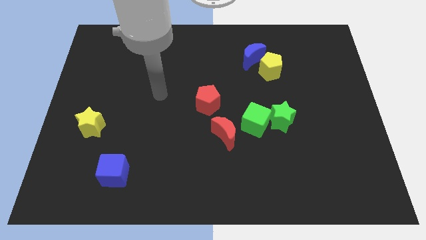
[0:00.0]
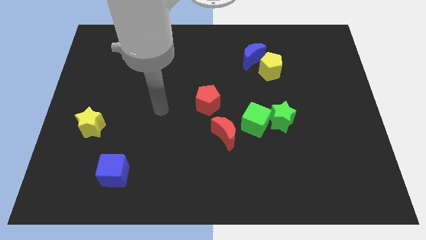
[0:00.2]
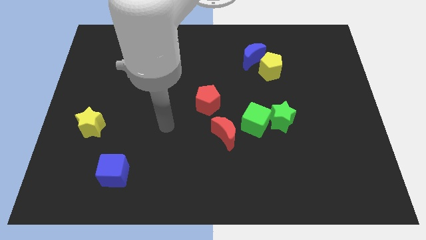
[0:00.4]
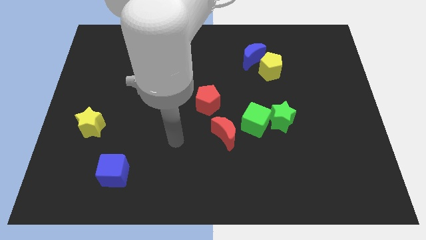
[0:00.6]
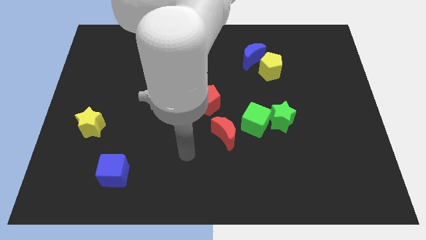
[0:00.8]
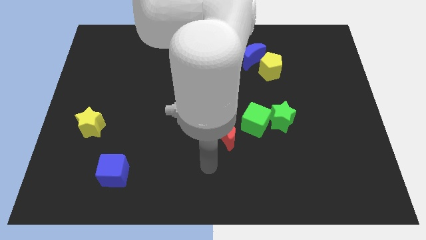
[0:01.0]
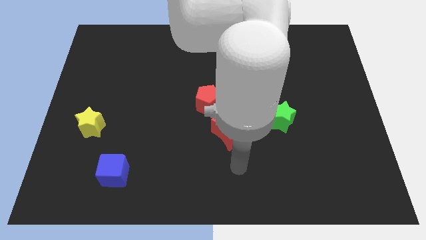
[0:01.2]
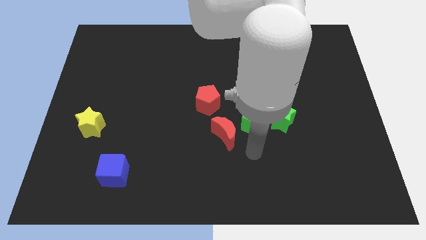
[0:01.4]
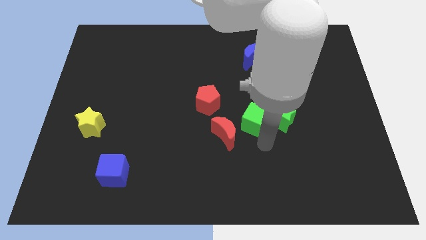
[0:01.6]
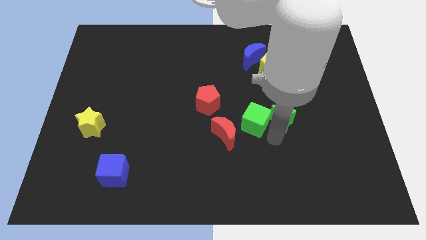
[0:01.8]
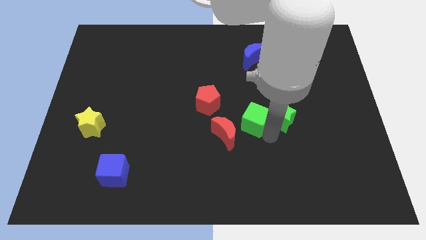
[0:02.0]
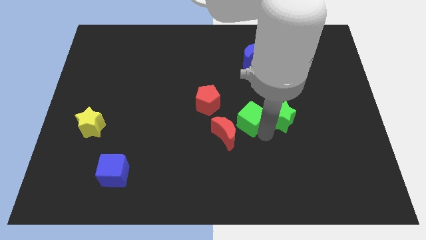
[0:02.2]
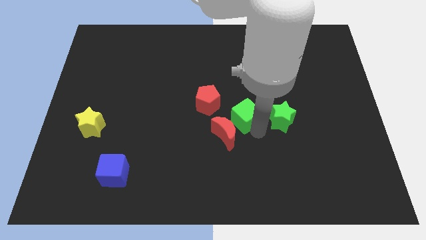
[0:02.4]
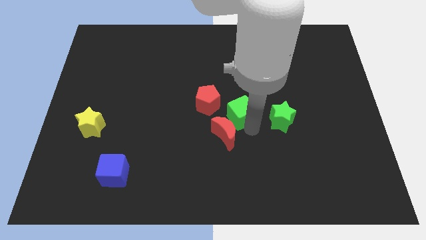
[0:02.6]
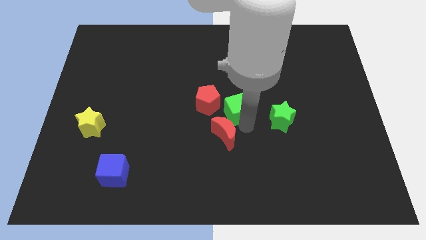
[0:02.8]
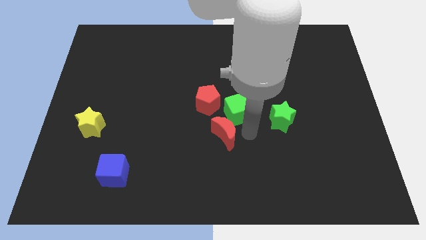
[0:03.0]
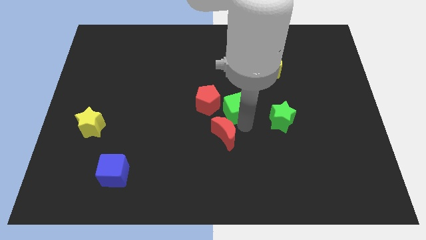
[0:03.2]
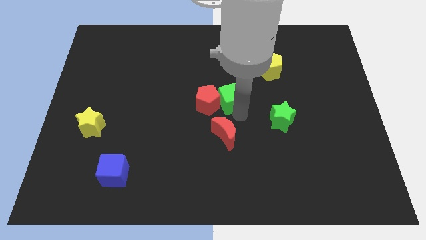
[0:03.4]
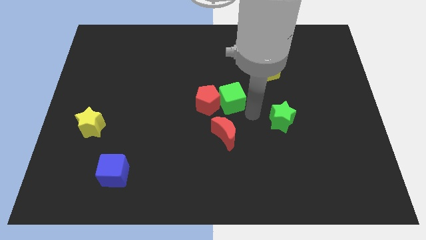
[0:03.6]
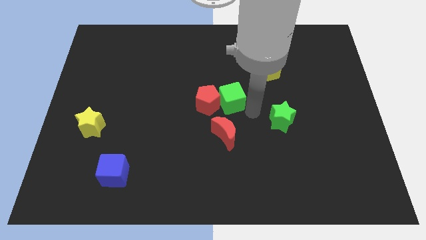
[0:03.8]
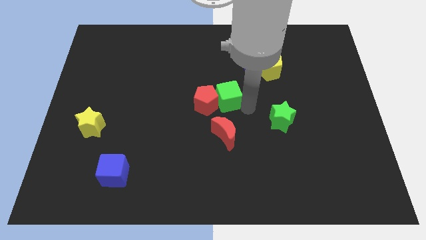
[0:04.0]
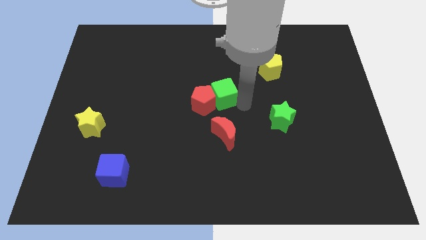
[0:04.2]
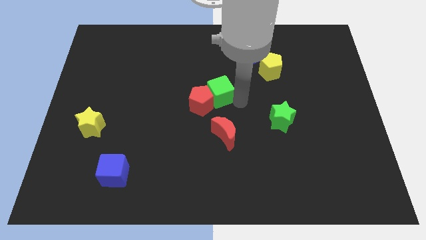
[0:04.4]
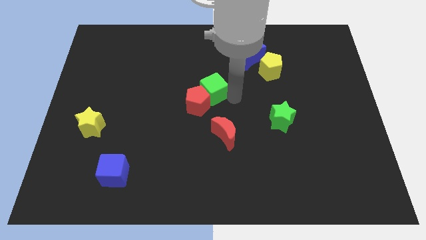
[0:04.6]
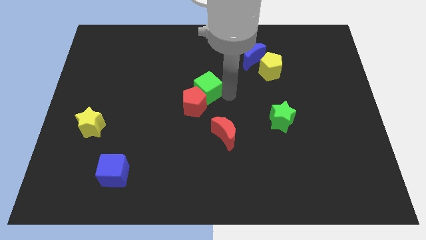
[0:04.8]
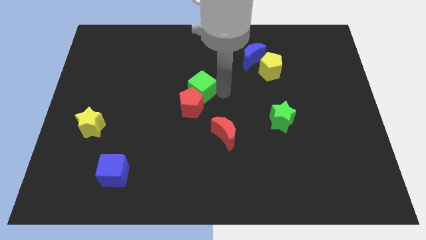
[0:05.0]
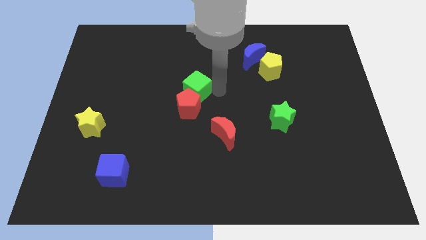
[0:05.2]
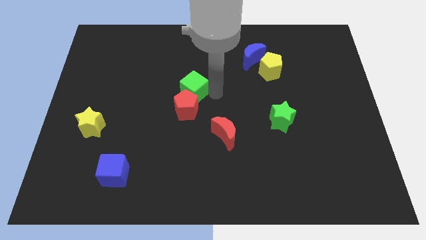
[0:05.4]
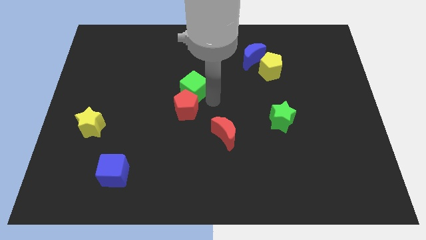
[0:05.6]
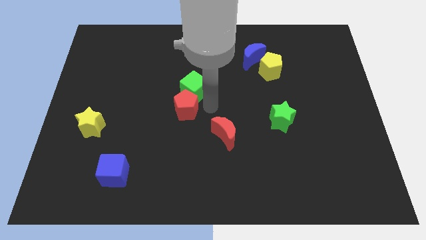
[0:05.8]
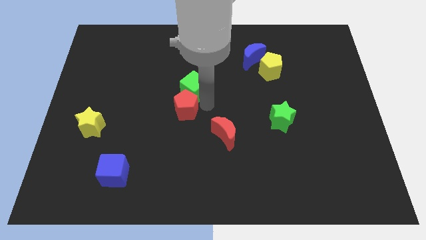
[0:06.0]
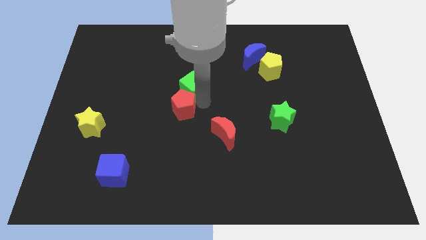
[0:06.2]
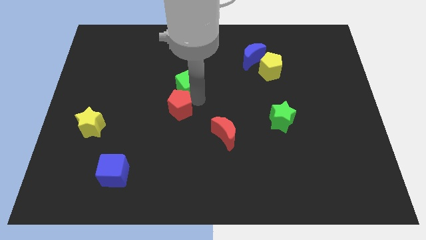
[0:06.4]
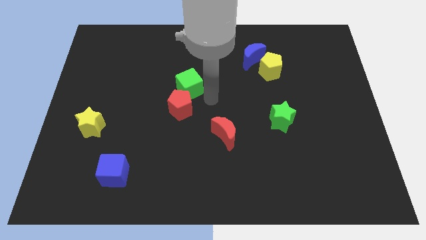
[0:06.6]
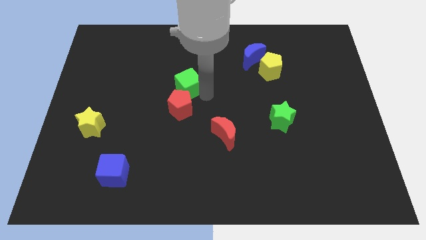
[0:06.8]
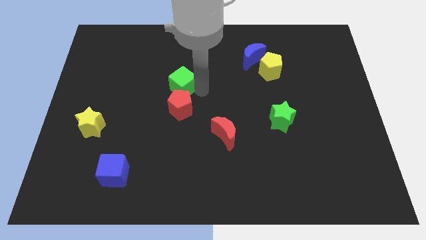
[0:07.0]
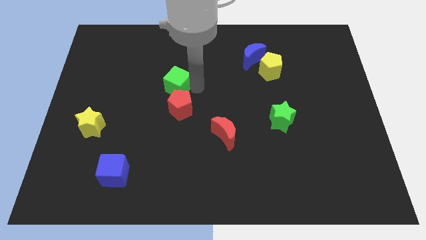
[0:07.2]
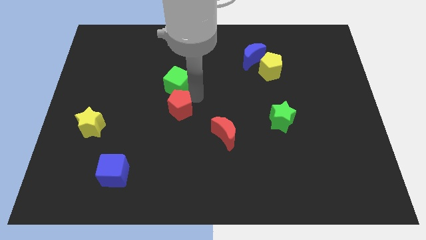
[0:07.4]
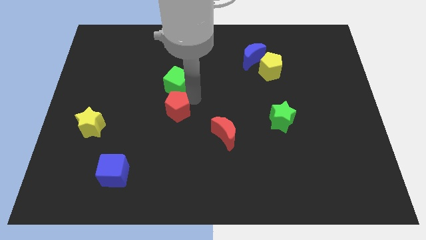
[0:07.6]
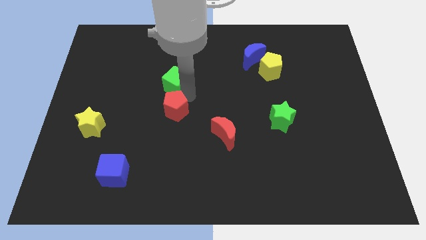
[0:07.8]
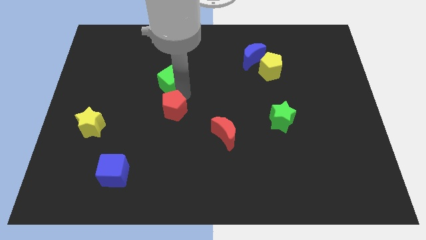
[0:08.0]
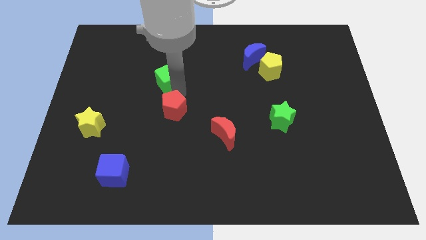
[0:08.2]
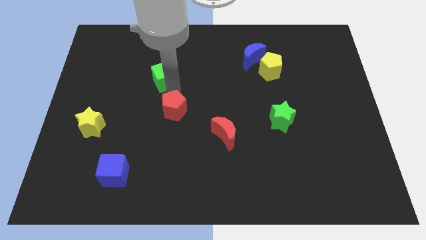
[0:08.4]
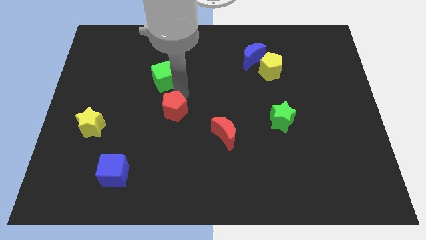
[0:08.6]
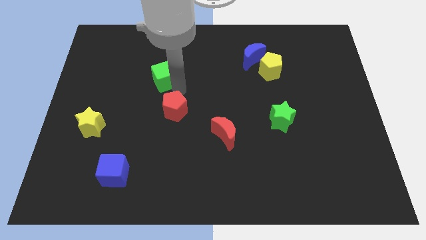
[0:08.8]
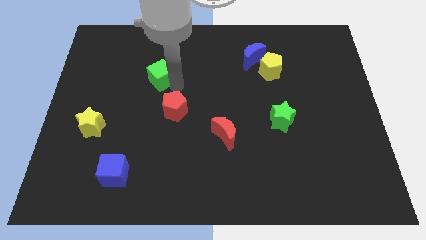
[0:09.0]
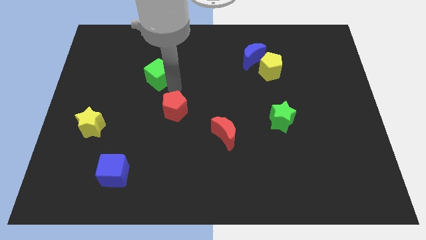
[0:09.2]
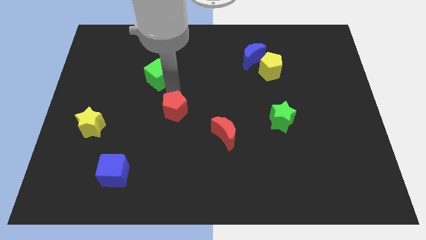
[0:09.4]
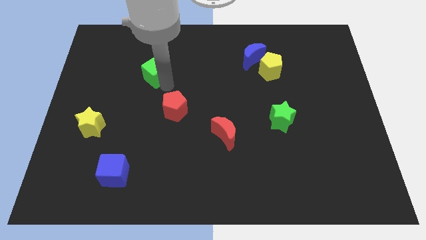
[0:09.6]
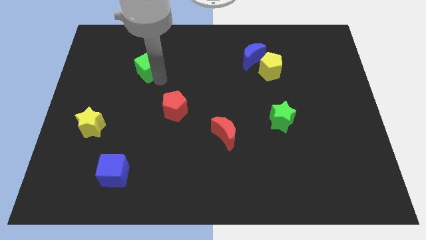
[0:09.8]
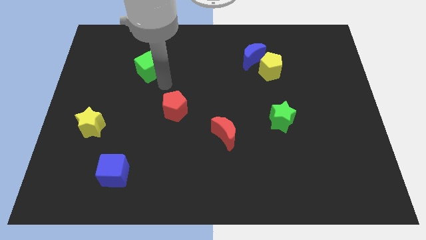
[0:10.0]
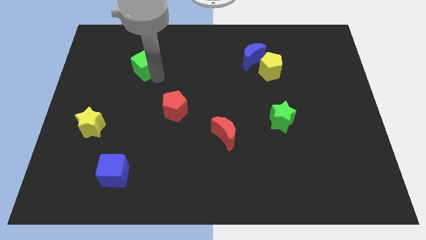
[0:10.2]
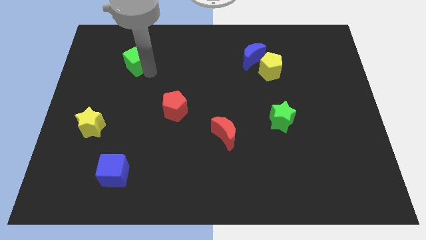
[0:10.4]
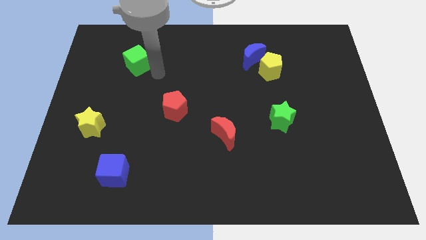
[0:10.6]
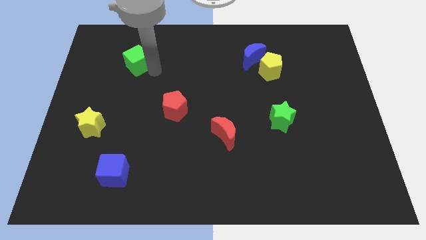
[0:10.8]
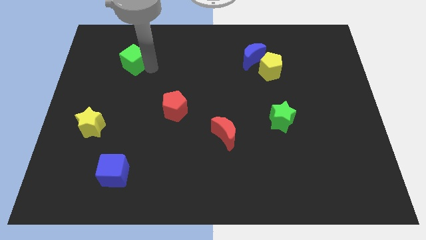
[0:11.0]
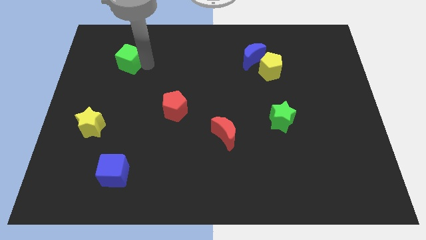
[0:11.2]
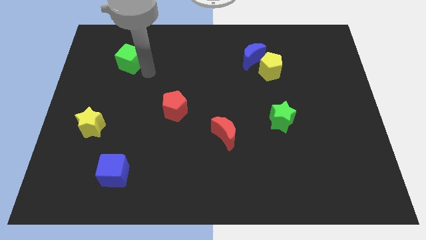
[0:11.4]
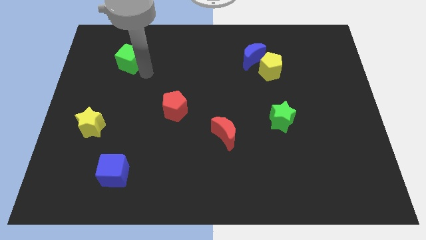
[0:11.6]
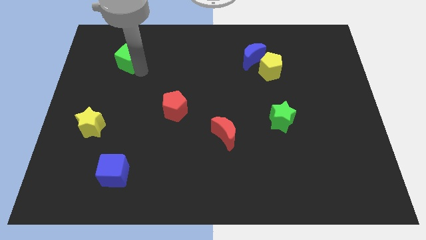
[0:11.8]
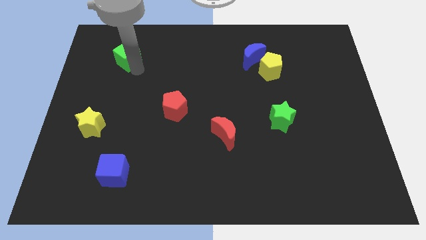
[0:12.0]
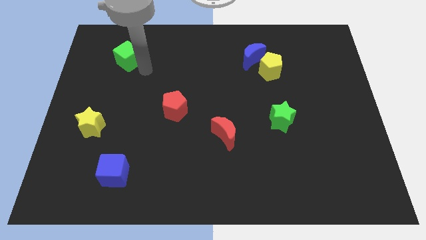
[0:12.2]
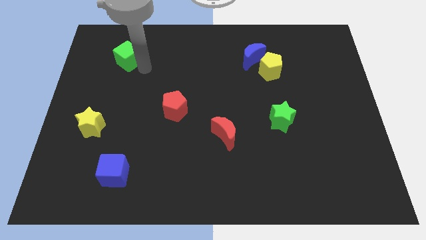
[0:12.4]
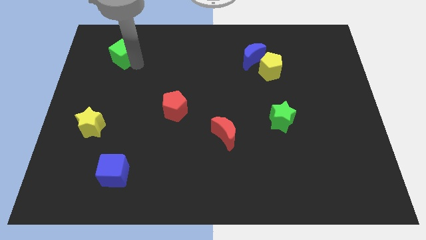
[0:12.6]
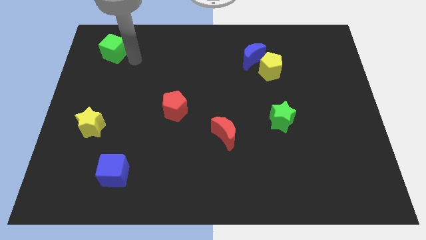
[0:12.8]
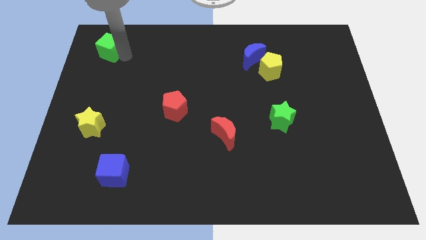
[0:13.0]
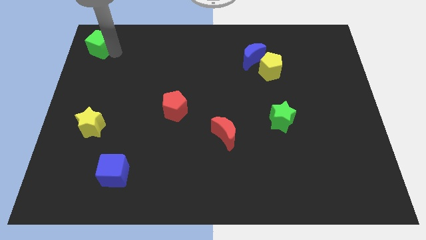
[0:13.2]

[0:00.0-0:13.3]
put the green cube to the top left
